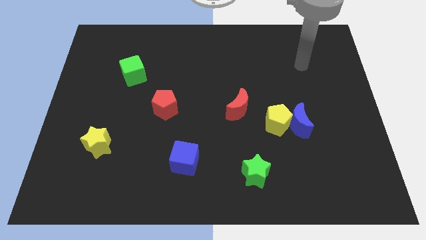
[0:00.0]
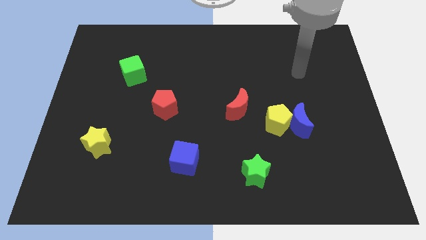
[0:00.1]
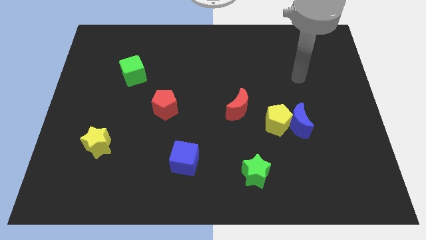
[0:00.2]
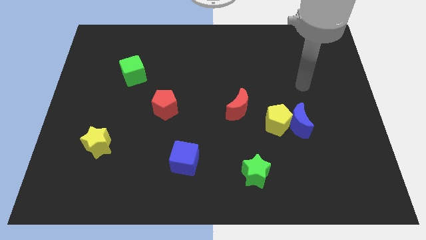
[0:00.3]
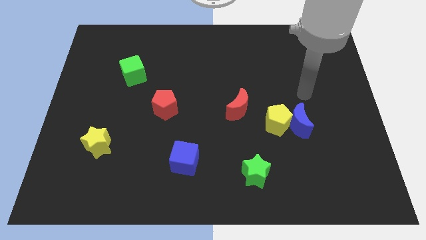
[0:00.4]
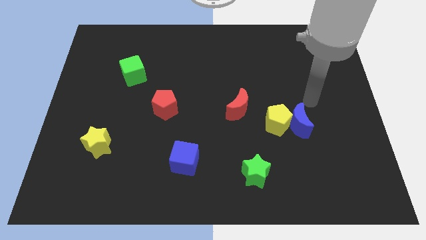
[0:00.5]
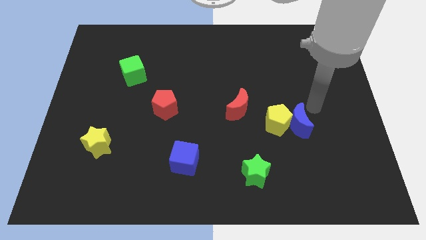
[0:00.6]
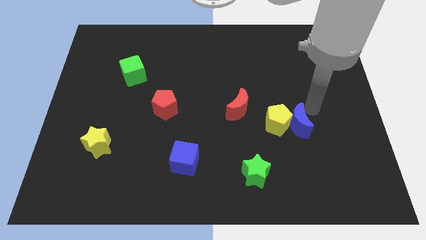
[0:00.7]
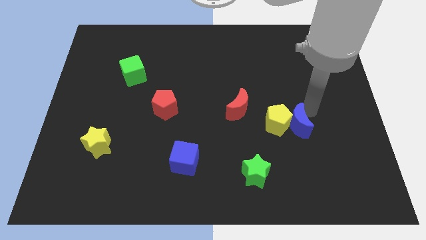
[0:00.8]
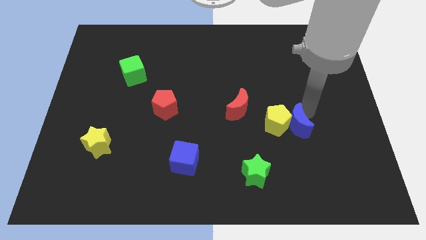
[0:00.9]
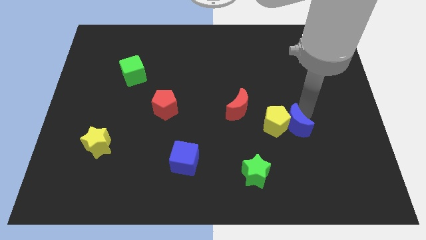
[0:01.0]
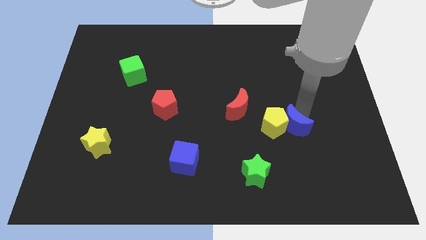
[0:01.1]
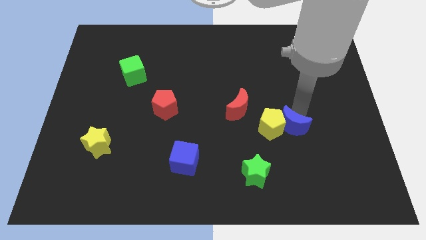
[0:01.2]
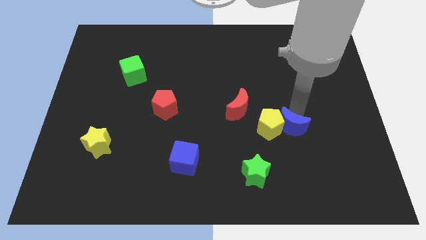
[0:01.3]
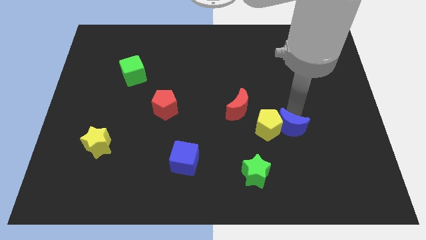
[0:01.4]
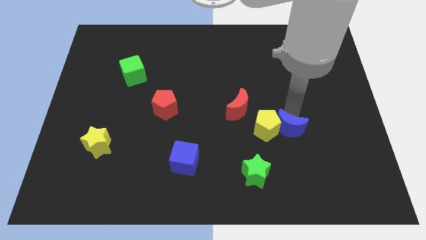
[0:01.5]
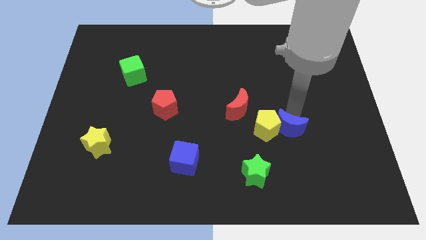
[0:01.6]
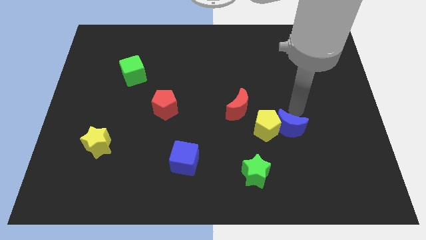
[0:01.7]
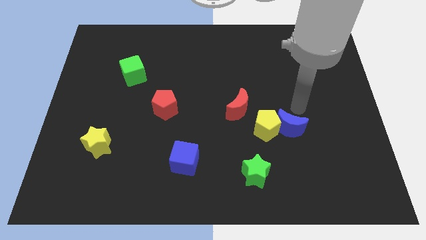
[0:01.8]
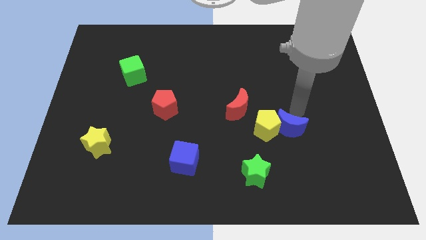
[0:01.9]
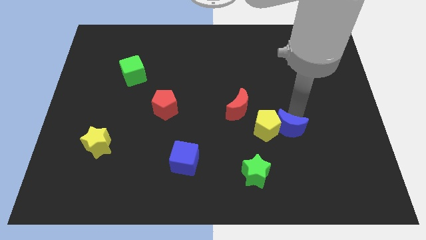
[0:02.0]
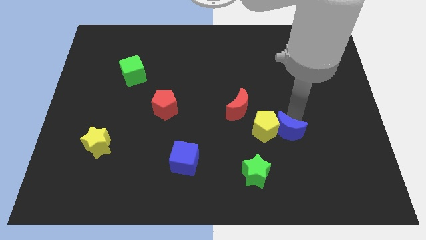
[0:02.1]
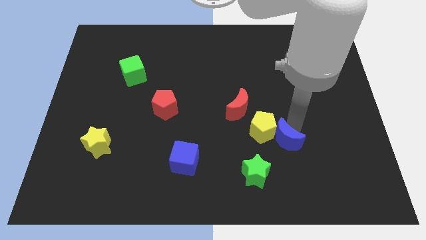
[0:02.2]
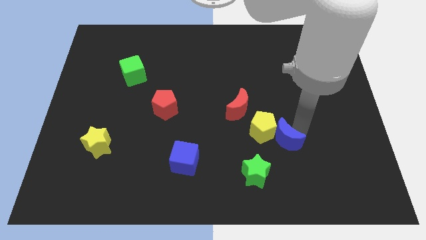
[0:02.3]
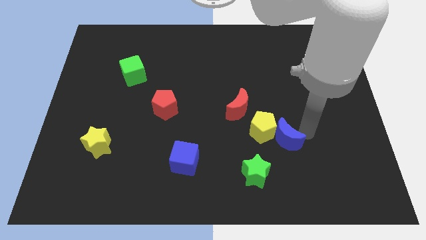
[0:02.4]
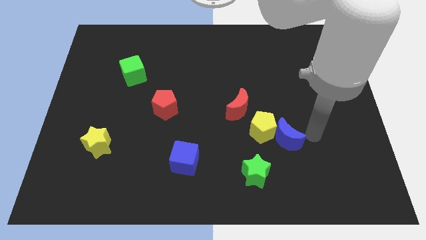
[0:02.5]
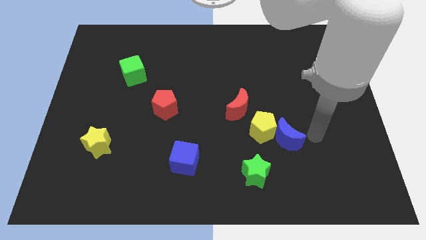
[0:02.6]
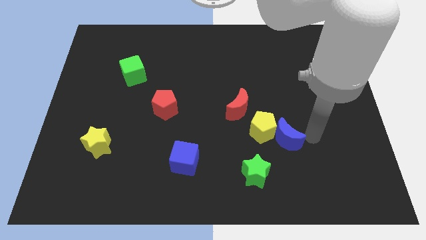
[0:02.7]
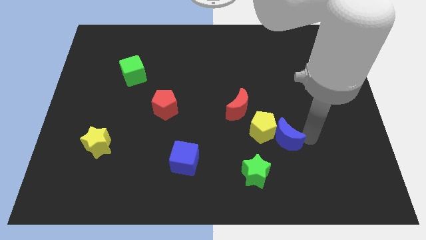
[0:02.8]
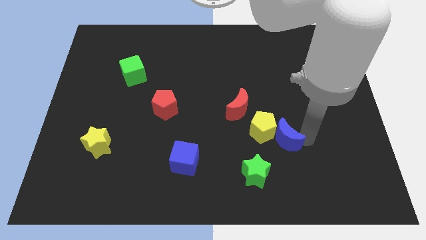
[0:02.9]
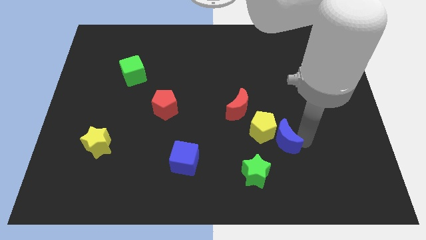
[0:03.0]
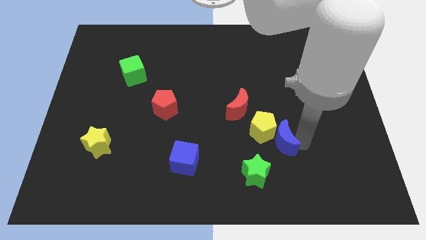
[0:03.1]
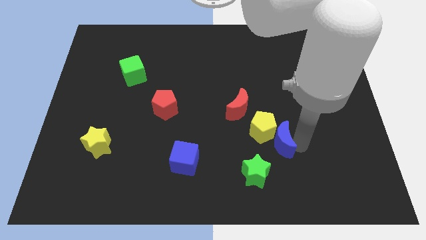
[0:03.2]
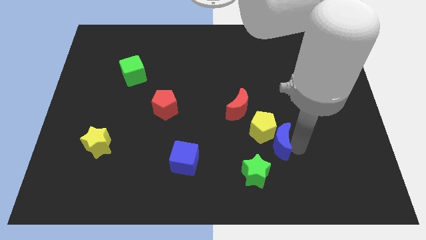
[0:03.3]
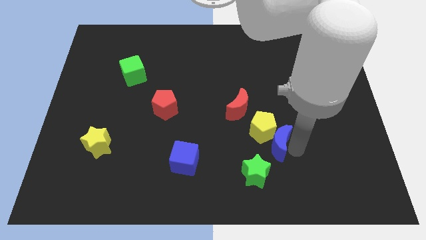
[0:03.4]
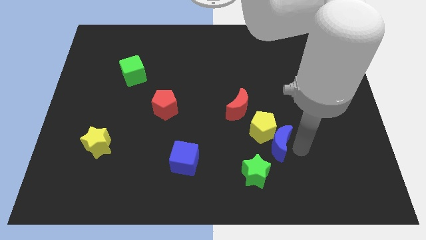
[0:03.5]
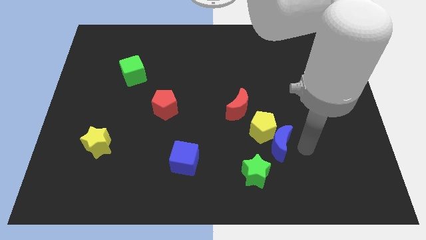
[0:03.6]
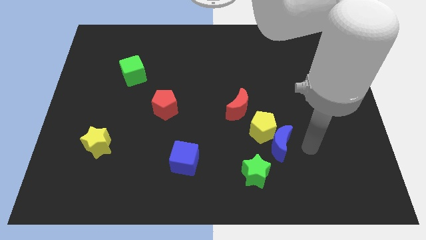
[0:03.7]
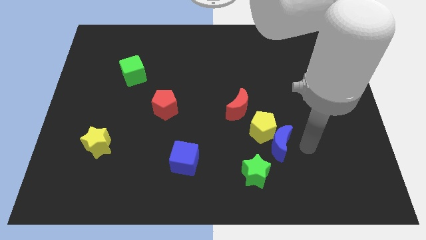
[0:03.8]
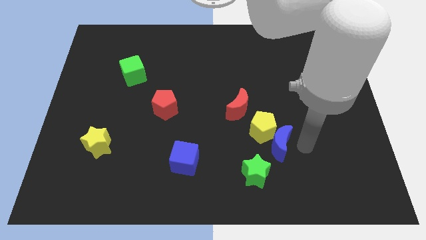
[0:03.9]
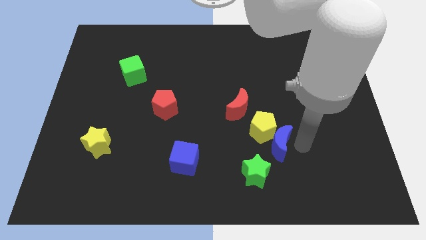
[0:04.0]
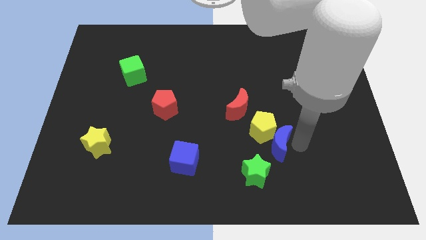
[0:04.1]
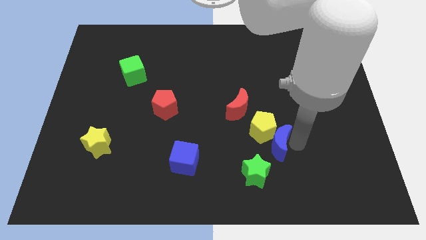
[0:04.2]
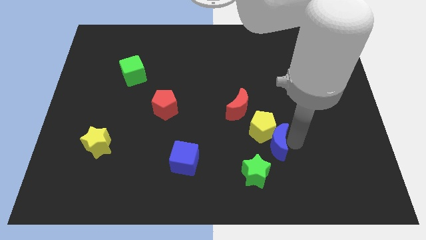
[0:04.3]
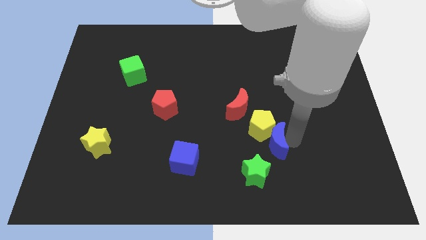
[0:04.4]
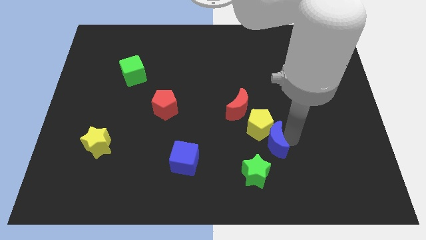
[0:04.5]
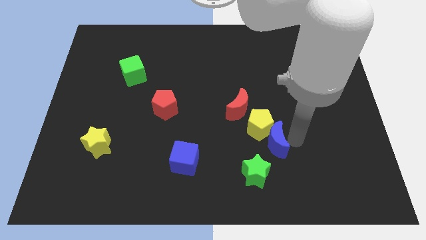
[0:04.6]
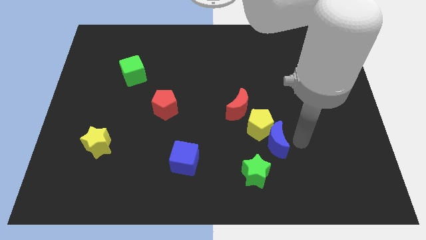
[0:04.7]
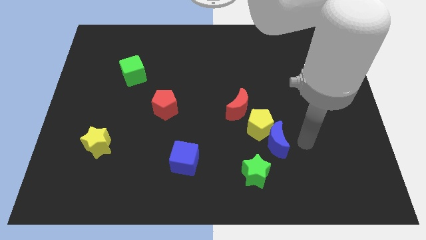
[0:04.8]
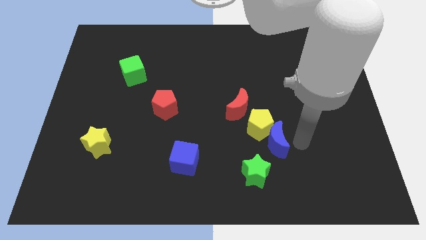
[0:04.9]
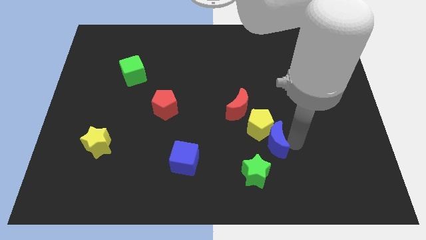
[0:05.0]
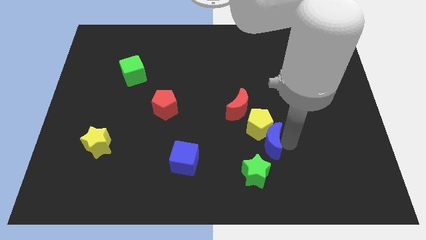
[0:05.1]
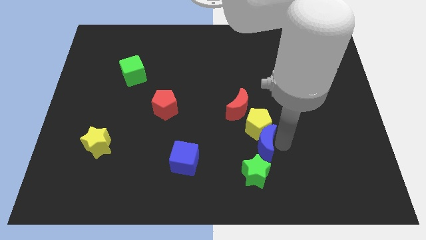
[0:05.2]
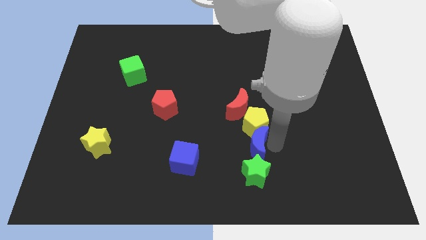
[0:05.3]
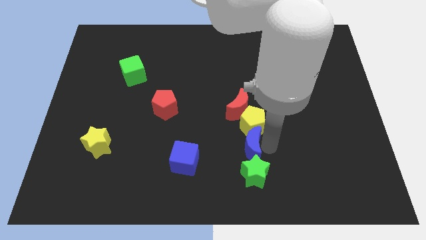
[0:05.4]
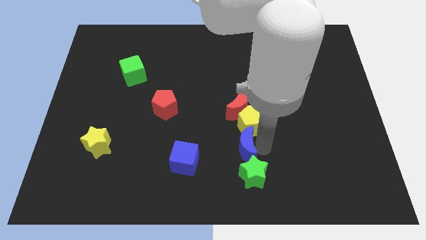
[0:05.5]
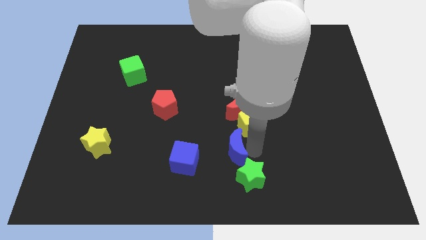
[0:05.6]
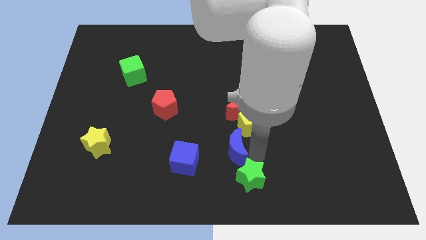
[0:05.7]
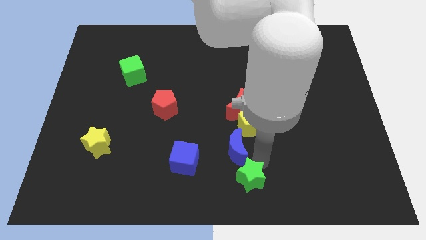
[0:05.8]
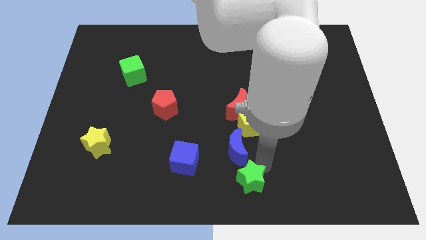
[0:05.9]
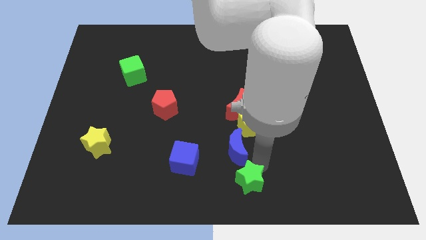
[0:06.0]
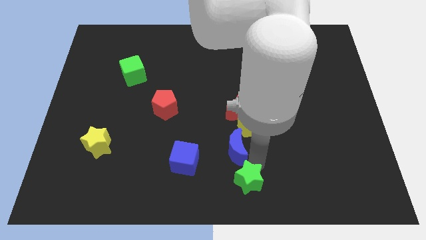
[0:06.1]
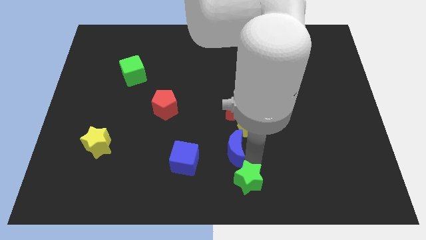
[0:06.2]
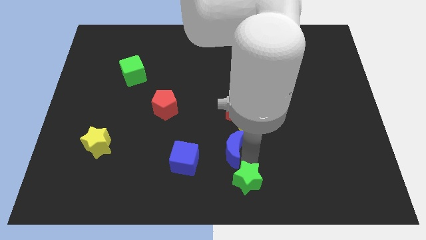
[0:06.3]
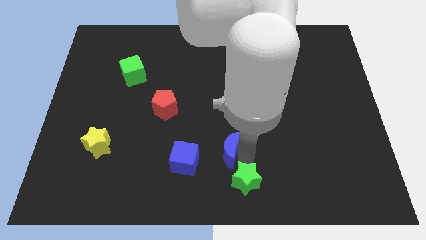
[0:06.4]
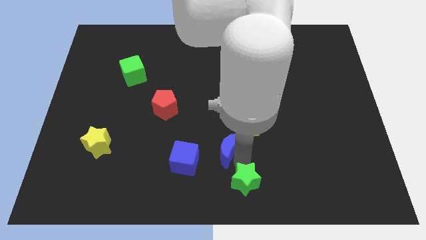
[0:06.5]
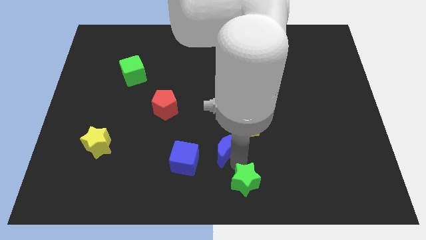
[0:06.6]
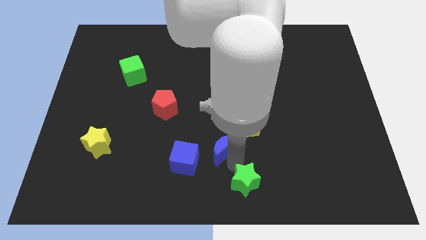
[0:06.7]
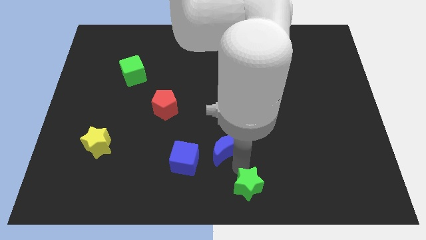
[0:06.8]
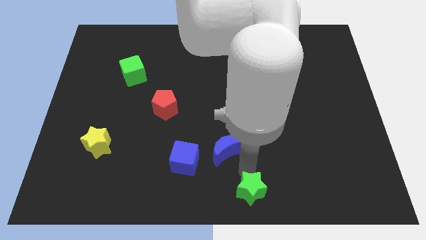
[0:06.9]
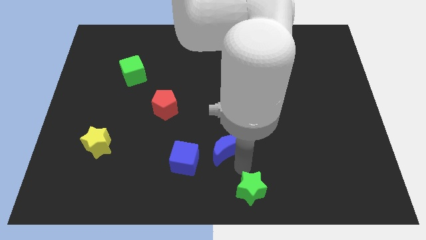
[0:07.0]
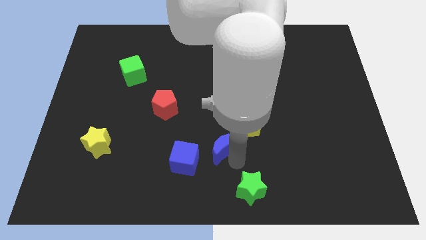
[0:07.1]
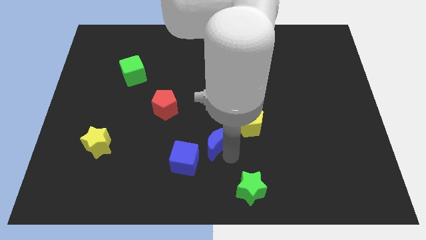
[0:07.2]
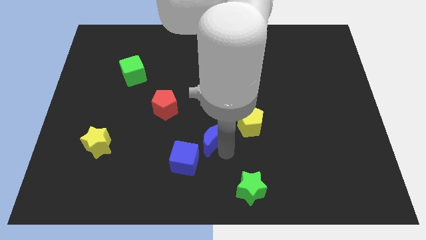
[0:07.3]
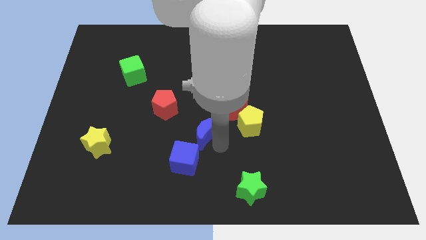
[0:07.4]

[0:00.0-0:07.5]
move the blue moon to the left

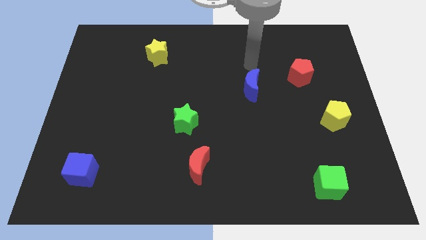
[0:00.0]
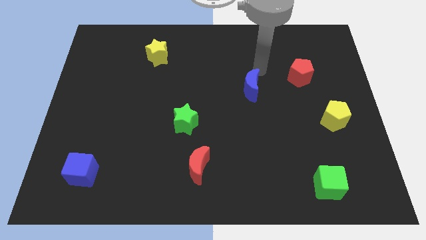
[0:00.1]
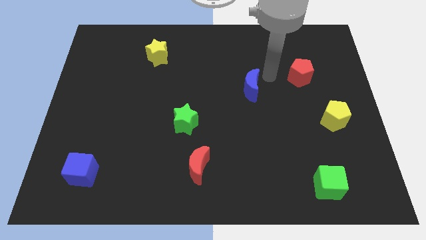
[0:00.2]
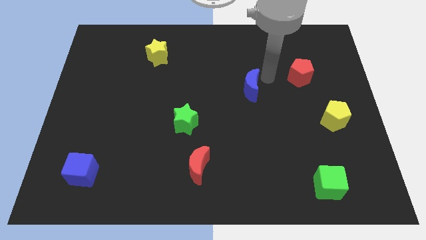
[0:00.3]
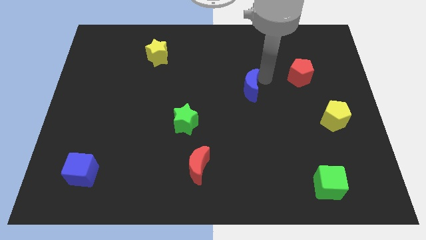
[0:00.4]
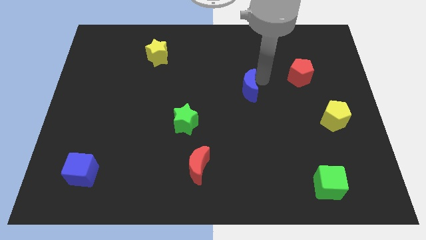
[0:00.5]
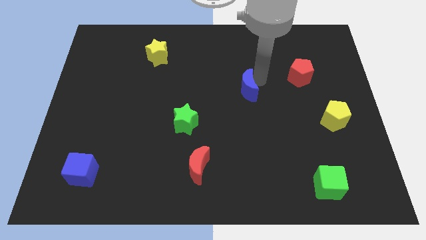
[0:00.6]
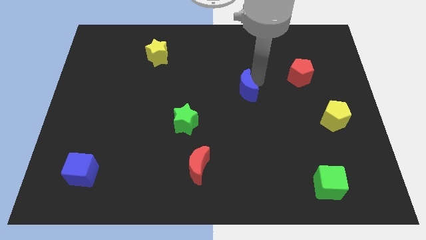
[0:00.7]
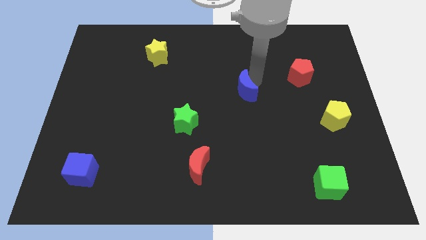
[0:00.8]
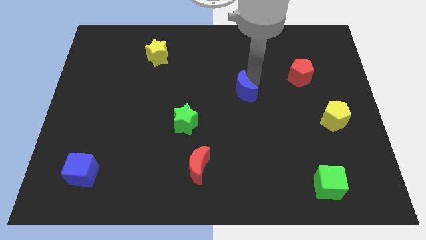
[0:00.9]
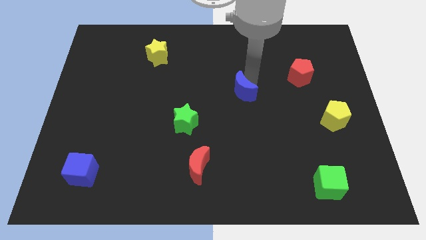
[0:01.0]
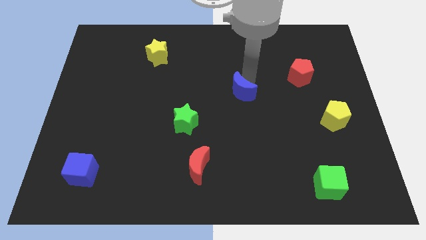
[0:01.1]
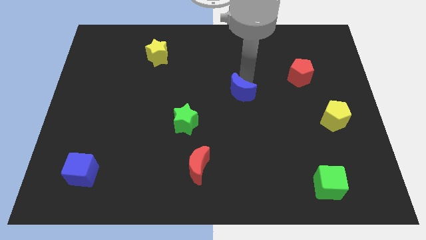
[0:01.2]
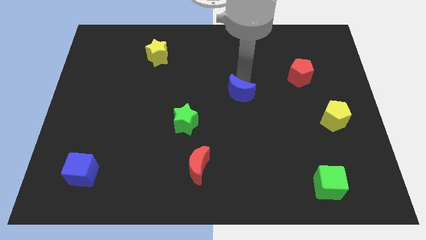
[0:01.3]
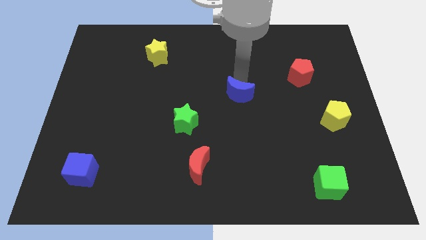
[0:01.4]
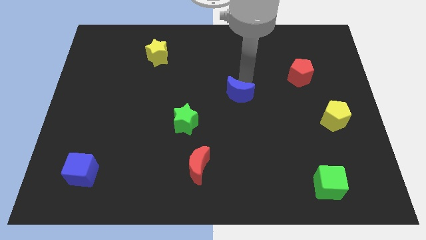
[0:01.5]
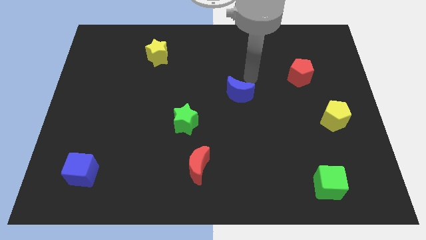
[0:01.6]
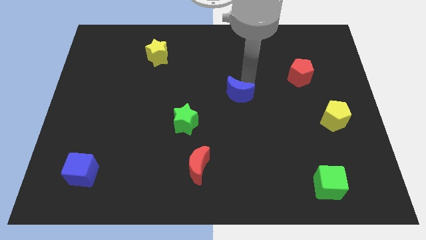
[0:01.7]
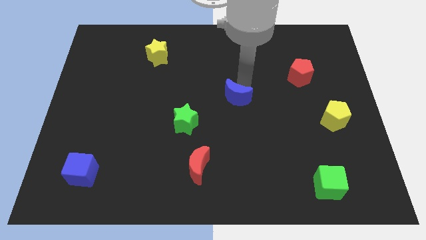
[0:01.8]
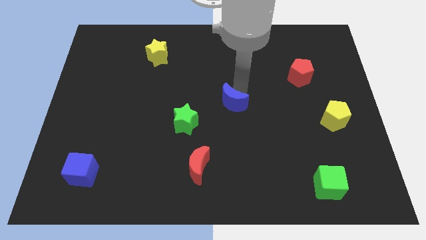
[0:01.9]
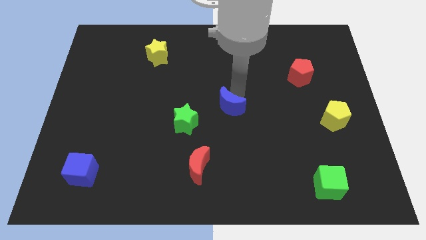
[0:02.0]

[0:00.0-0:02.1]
push the blue moon a little diagonally down and left
